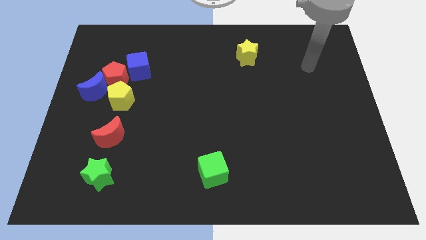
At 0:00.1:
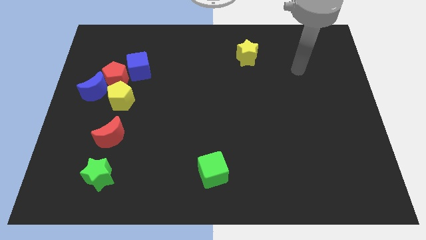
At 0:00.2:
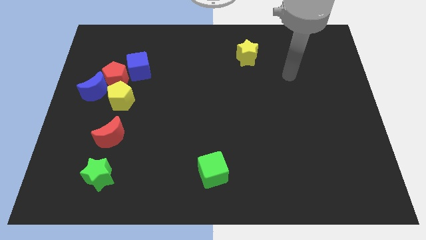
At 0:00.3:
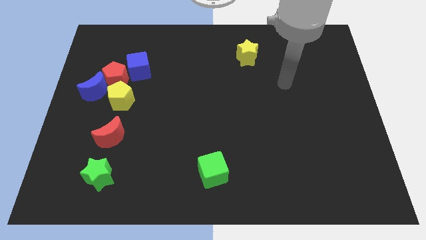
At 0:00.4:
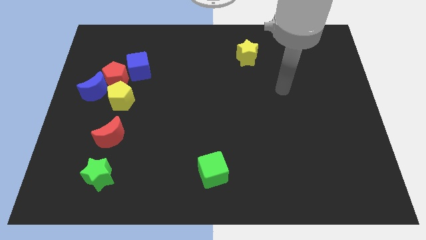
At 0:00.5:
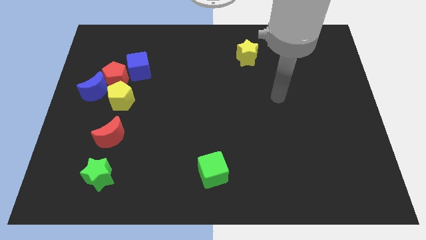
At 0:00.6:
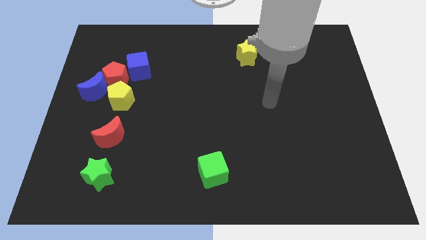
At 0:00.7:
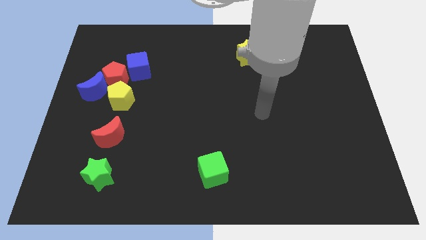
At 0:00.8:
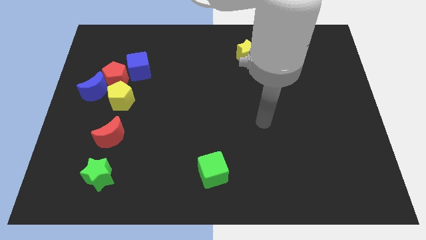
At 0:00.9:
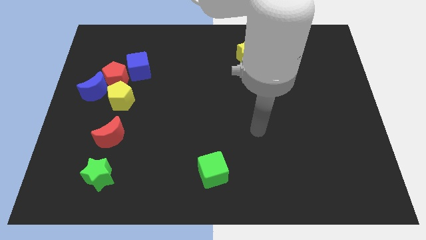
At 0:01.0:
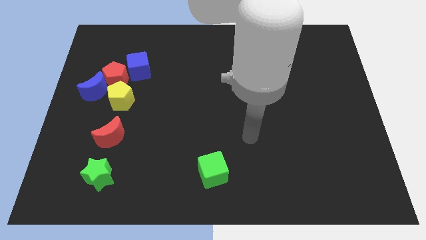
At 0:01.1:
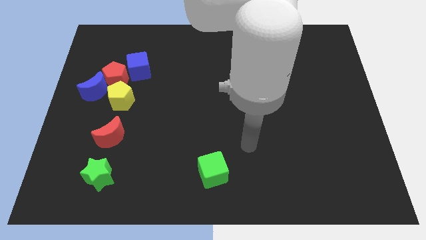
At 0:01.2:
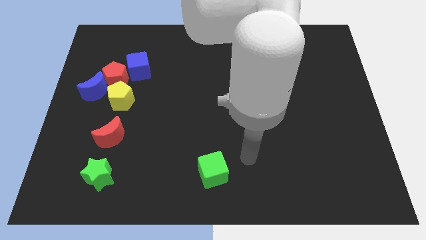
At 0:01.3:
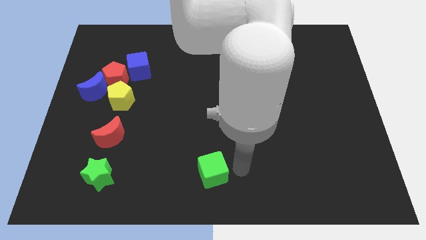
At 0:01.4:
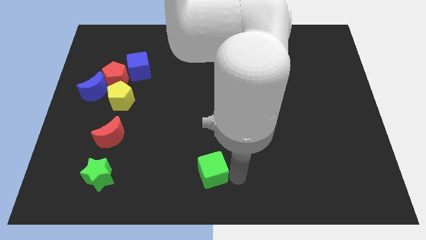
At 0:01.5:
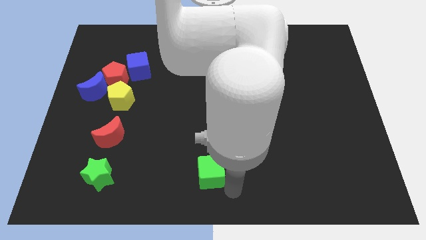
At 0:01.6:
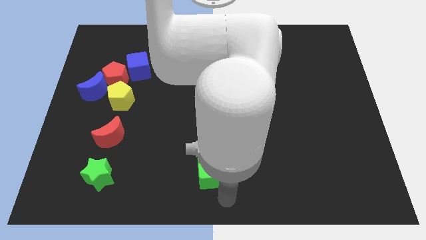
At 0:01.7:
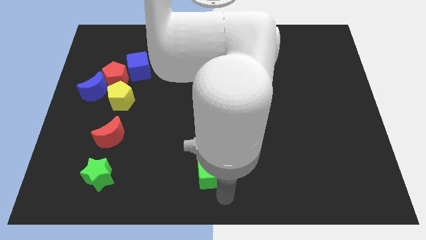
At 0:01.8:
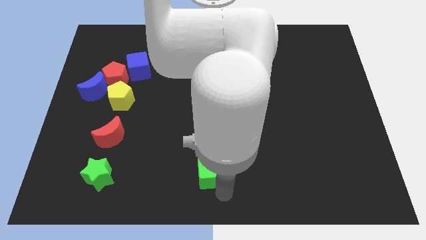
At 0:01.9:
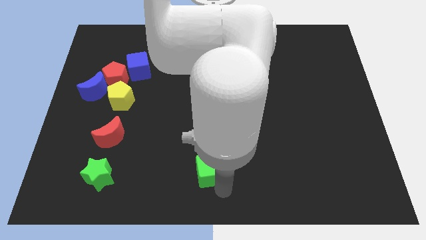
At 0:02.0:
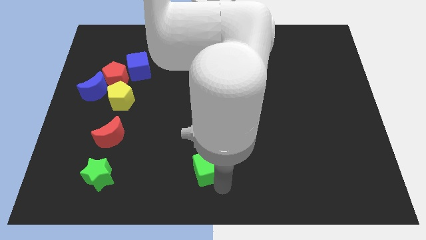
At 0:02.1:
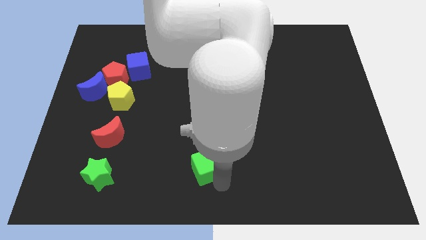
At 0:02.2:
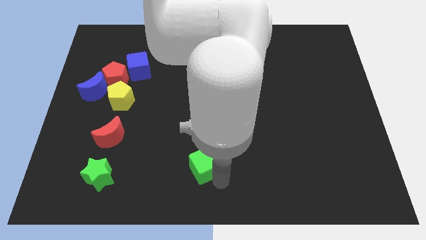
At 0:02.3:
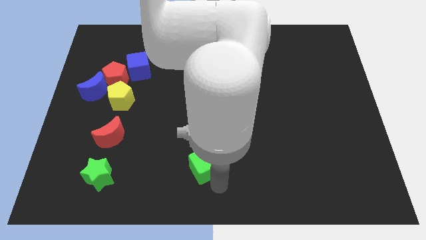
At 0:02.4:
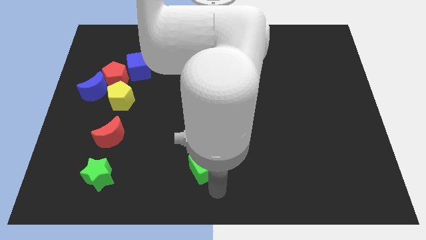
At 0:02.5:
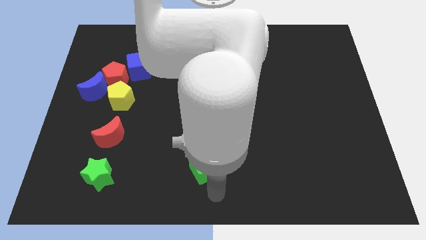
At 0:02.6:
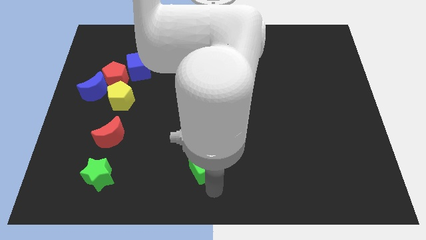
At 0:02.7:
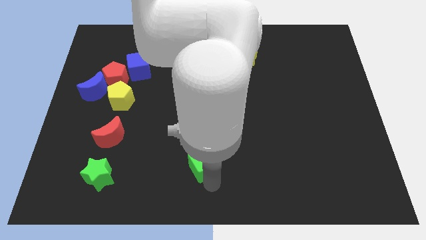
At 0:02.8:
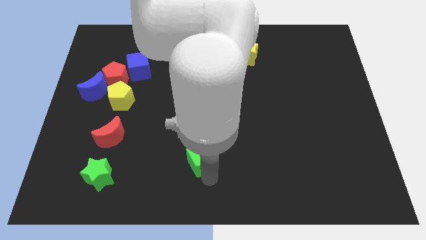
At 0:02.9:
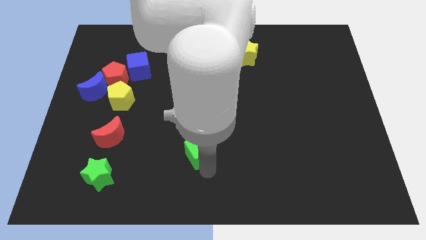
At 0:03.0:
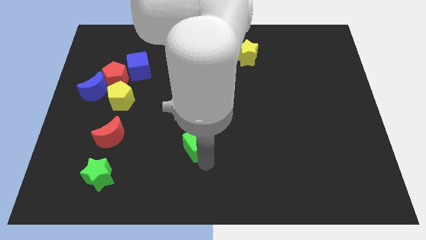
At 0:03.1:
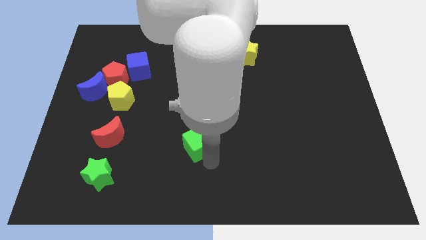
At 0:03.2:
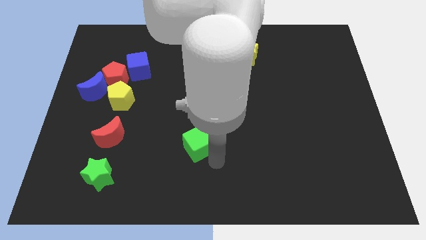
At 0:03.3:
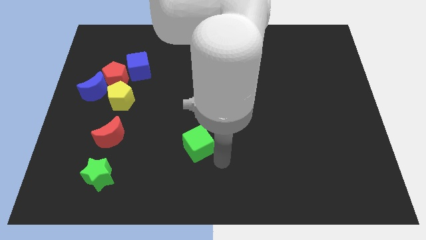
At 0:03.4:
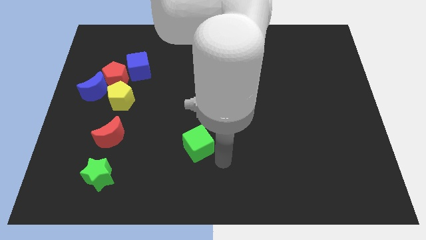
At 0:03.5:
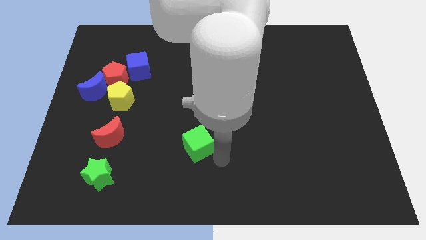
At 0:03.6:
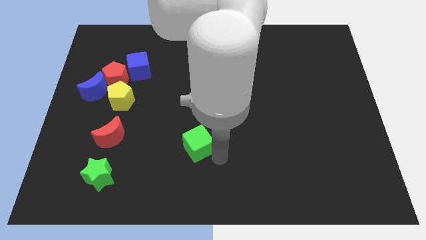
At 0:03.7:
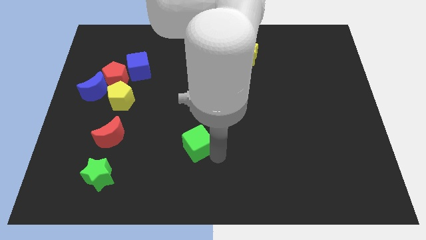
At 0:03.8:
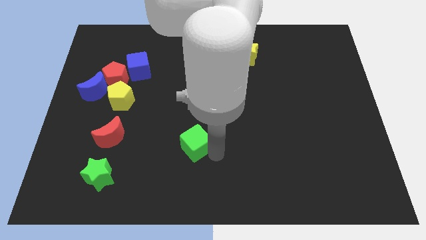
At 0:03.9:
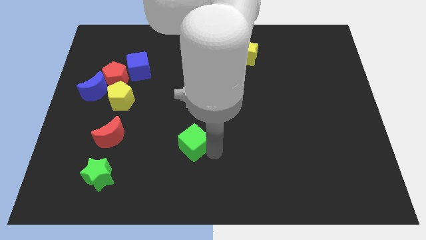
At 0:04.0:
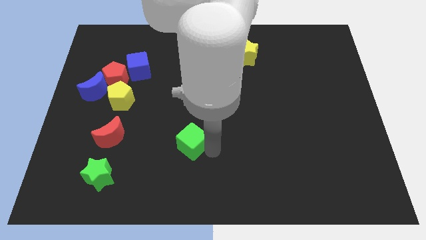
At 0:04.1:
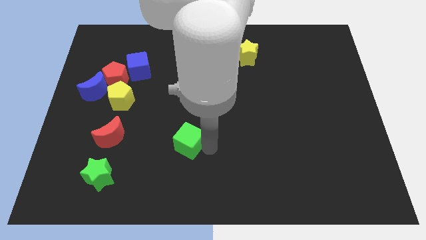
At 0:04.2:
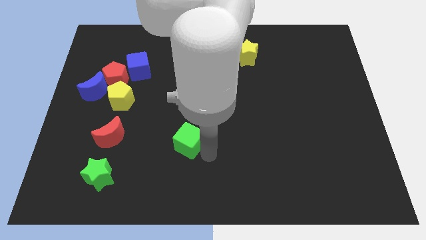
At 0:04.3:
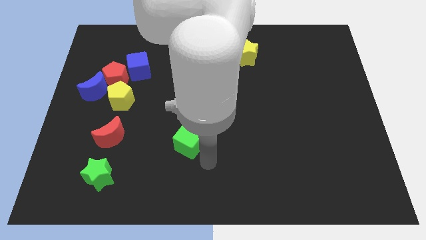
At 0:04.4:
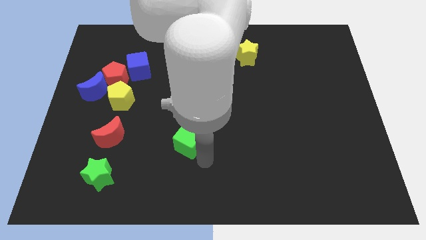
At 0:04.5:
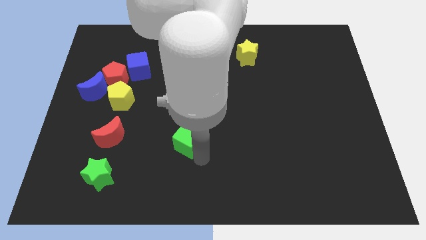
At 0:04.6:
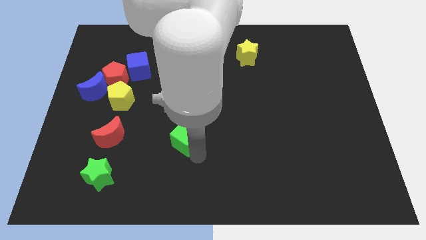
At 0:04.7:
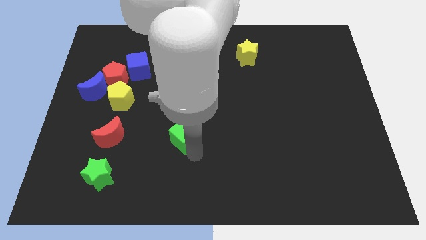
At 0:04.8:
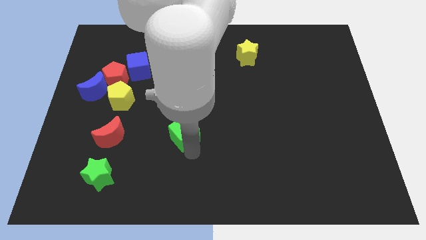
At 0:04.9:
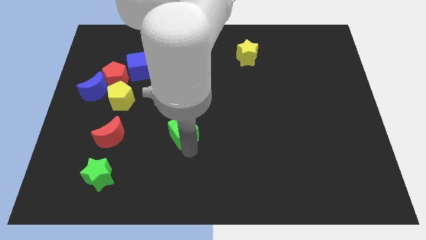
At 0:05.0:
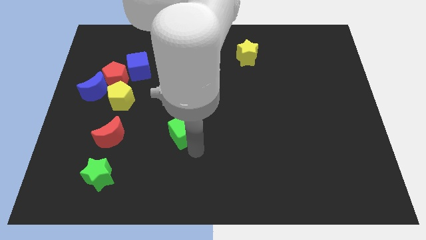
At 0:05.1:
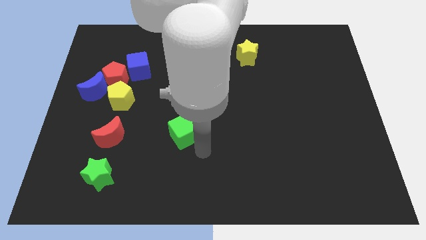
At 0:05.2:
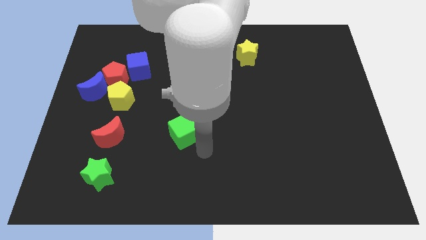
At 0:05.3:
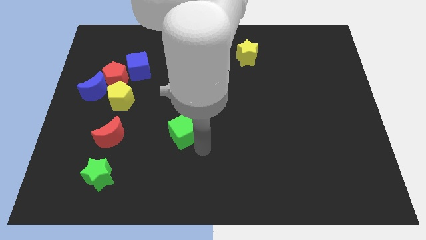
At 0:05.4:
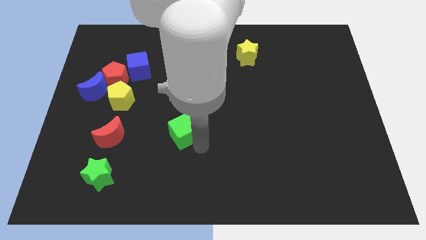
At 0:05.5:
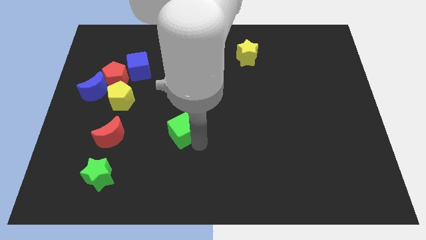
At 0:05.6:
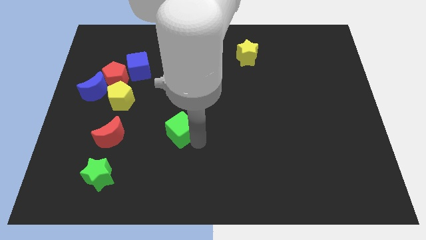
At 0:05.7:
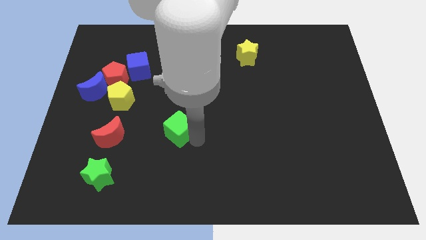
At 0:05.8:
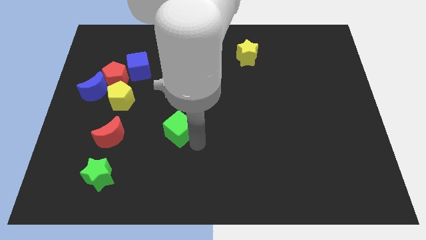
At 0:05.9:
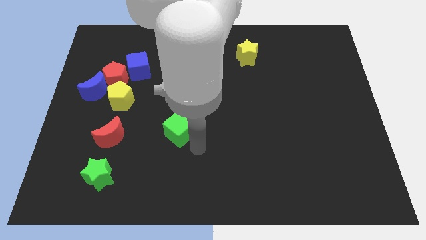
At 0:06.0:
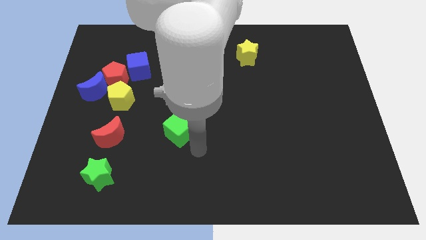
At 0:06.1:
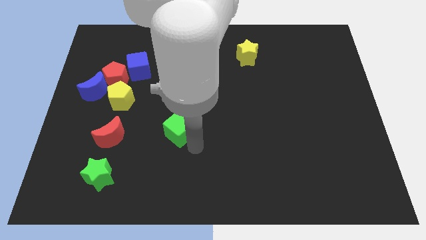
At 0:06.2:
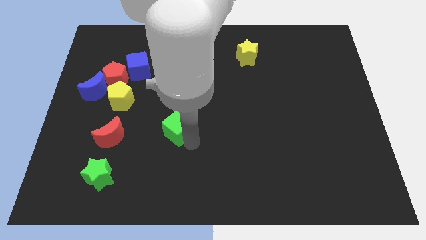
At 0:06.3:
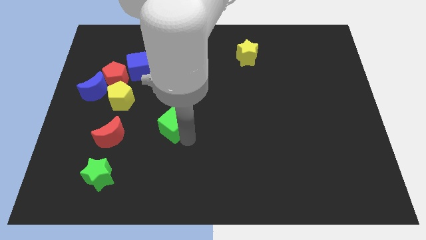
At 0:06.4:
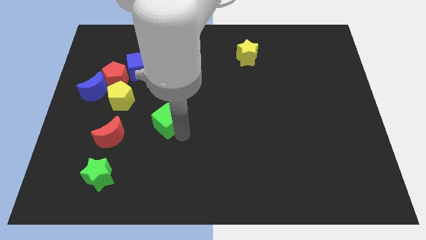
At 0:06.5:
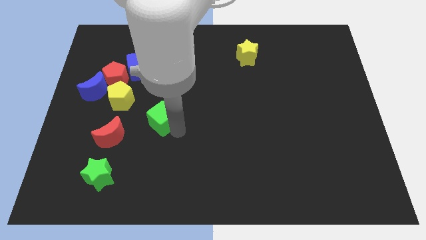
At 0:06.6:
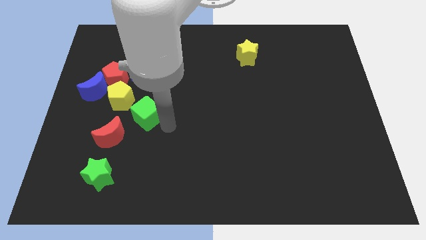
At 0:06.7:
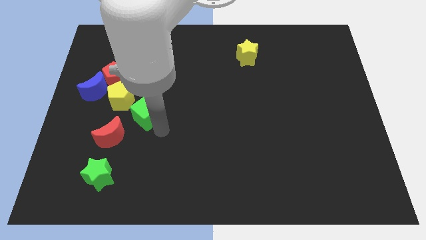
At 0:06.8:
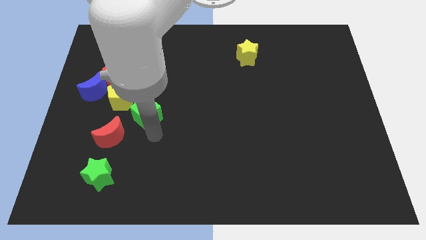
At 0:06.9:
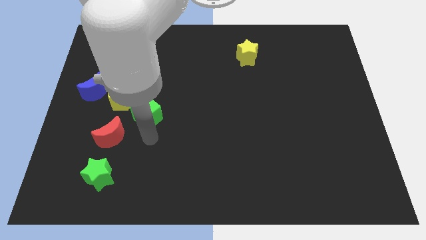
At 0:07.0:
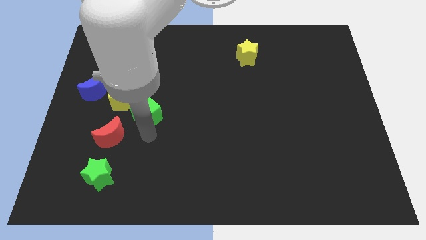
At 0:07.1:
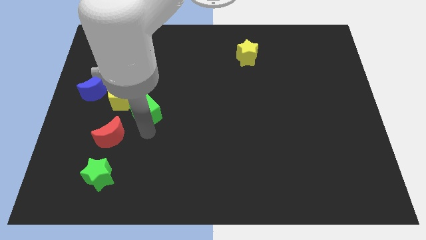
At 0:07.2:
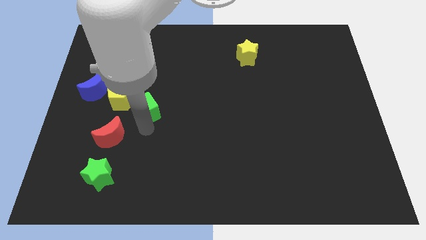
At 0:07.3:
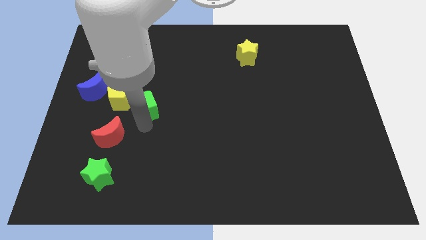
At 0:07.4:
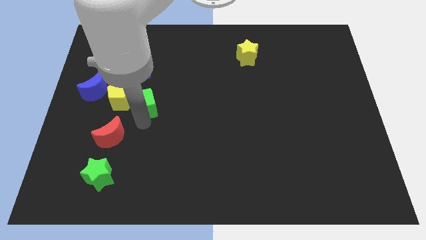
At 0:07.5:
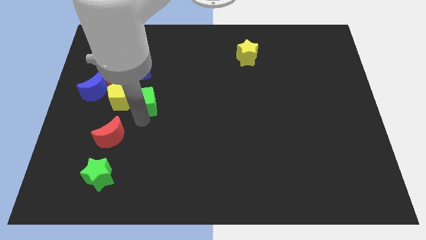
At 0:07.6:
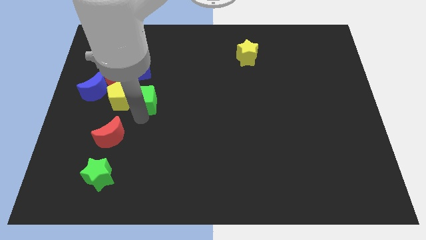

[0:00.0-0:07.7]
move the green cube to the top right of the yellow pentagon

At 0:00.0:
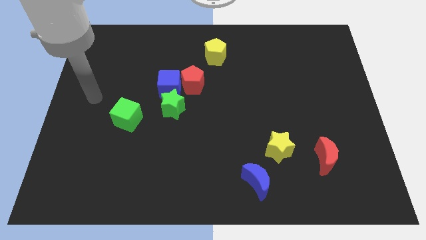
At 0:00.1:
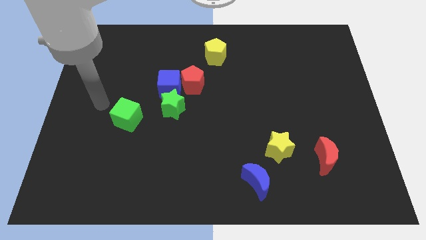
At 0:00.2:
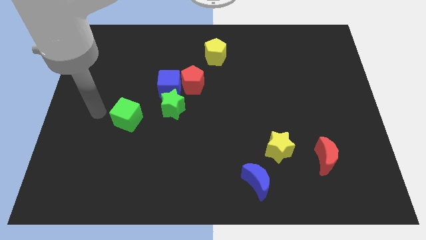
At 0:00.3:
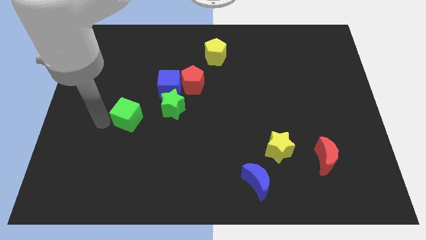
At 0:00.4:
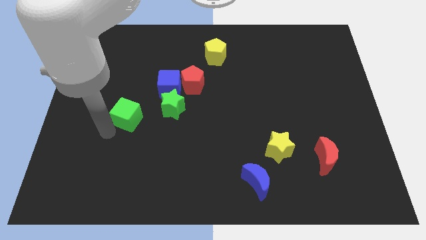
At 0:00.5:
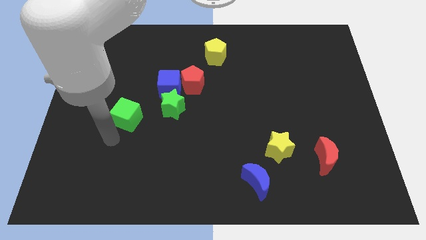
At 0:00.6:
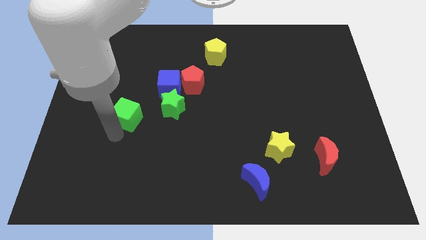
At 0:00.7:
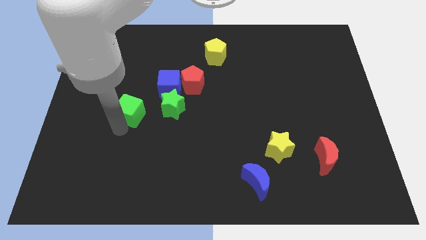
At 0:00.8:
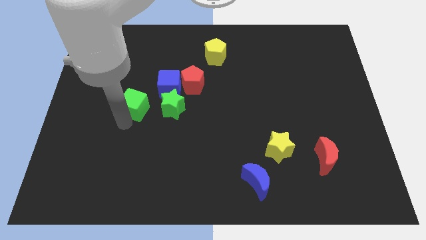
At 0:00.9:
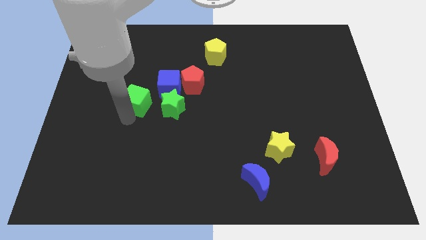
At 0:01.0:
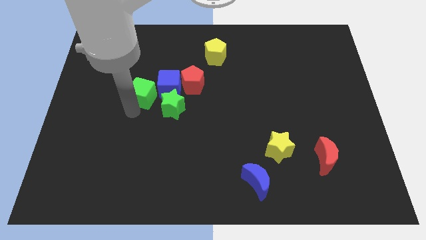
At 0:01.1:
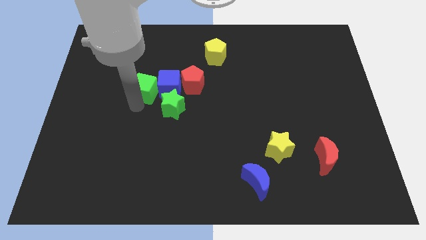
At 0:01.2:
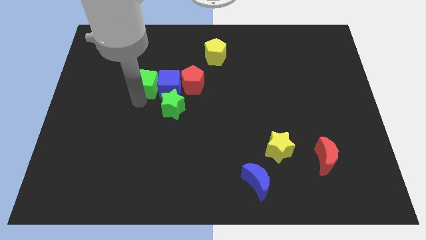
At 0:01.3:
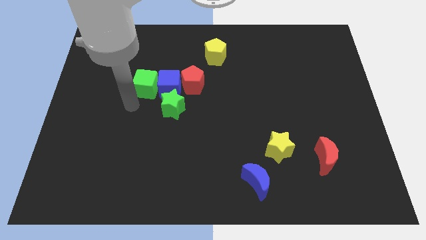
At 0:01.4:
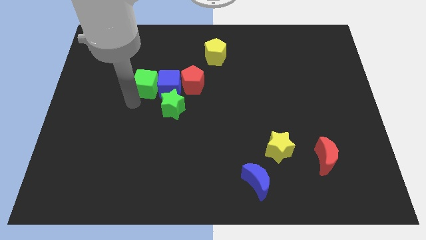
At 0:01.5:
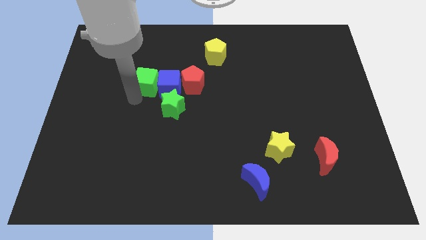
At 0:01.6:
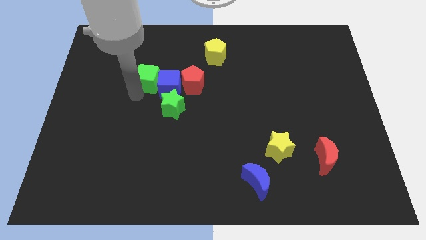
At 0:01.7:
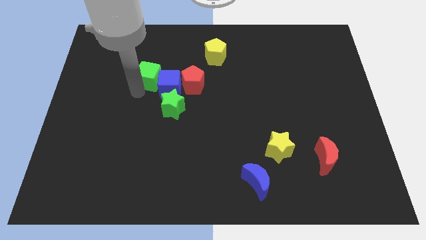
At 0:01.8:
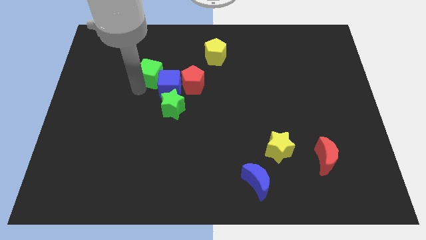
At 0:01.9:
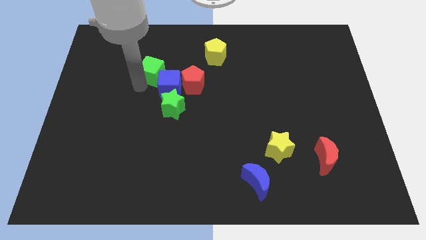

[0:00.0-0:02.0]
put the green cube to the top side of the blue cube
